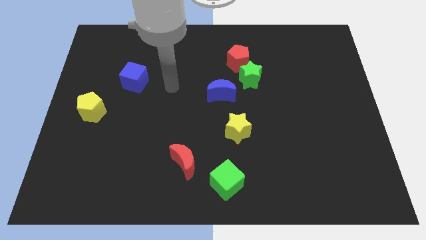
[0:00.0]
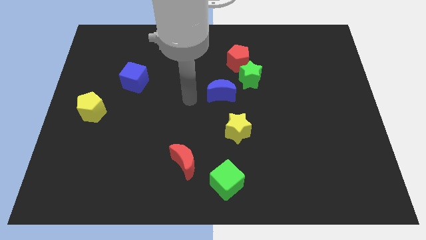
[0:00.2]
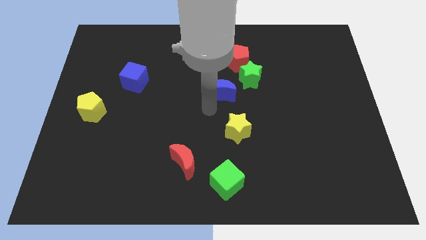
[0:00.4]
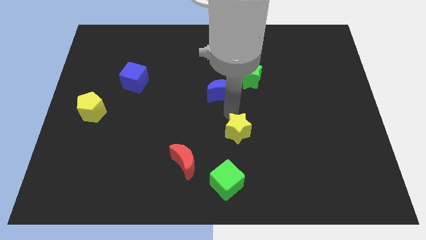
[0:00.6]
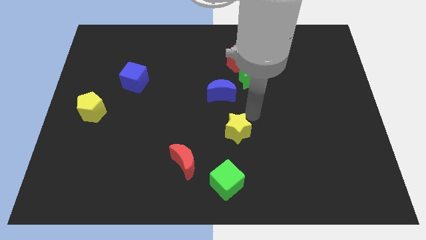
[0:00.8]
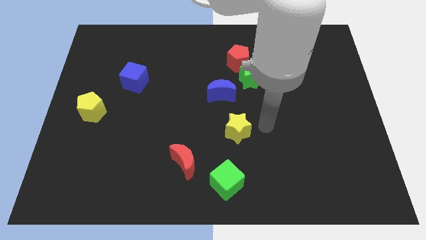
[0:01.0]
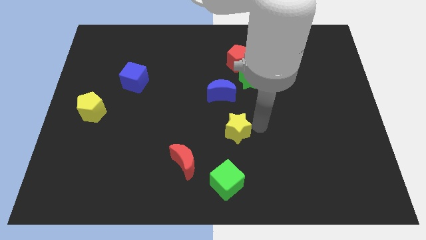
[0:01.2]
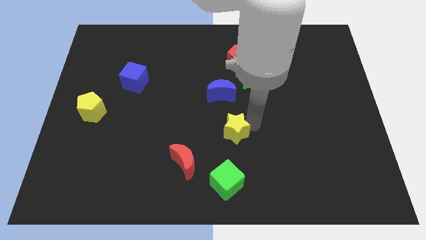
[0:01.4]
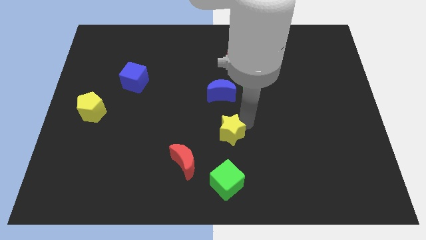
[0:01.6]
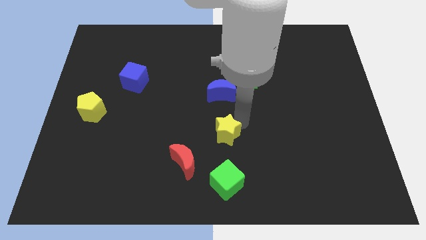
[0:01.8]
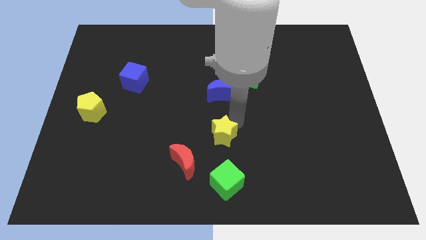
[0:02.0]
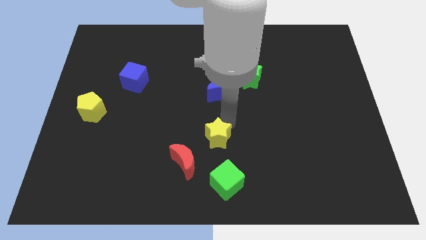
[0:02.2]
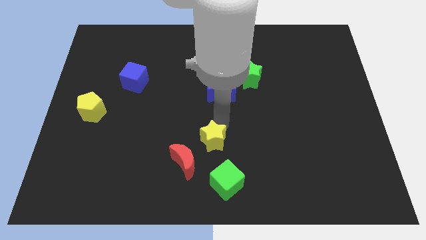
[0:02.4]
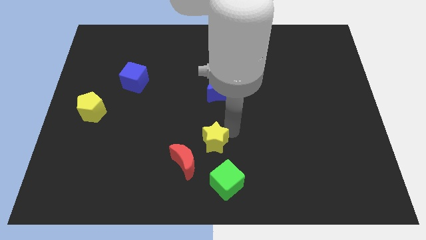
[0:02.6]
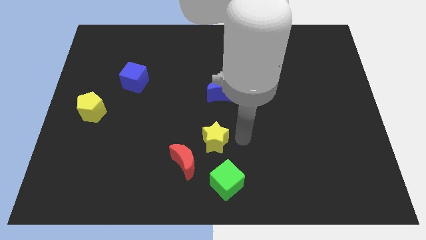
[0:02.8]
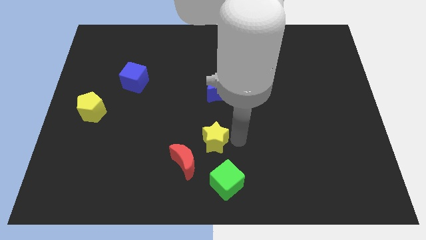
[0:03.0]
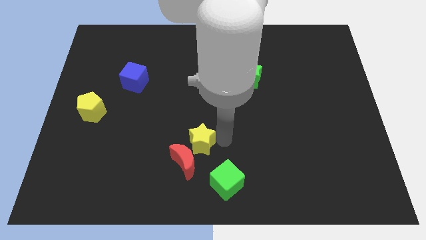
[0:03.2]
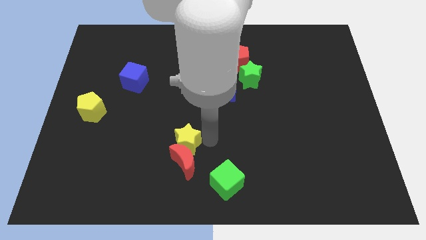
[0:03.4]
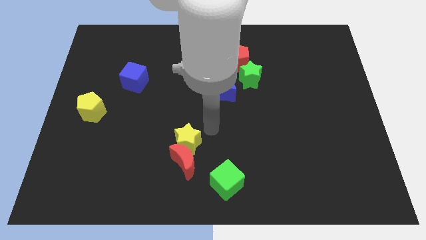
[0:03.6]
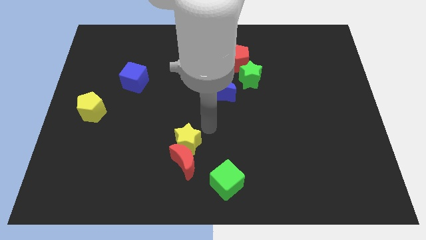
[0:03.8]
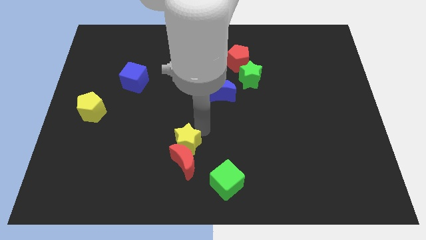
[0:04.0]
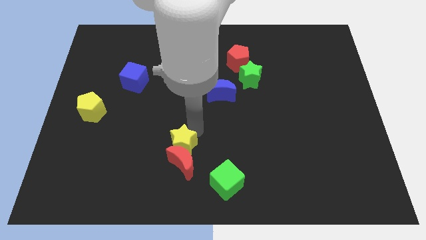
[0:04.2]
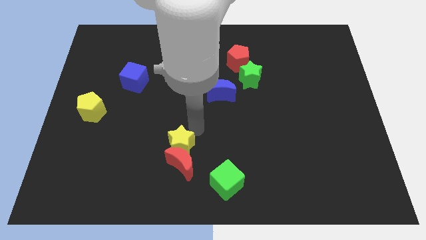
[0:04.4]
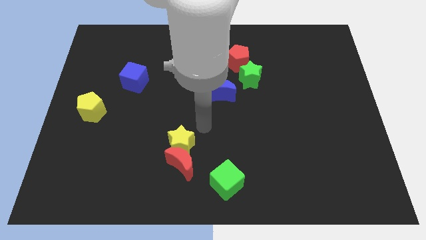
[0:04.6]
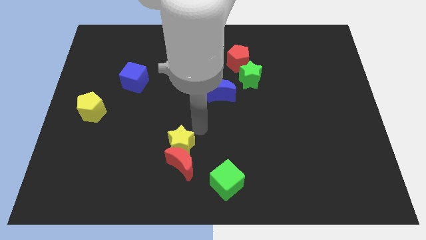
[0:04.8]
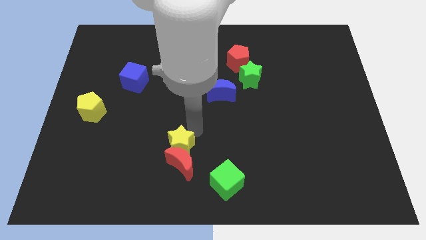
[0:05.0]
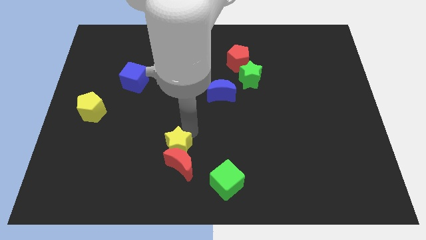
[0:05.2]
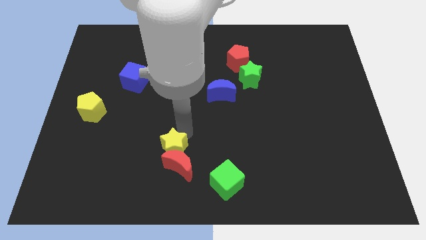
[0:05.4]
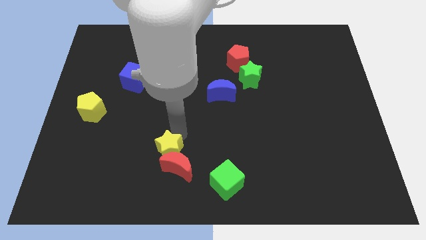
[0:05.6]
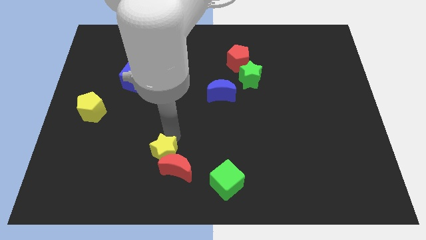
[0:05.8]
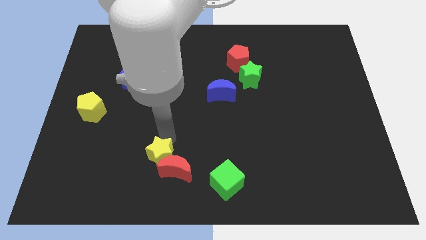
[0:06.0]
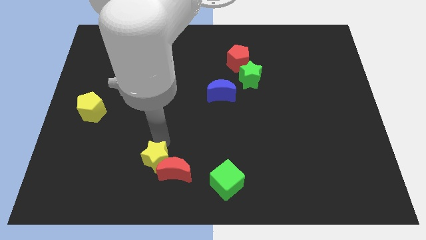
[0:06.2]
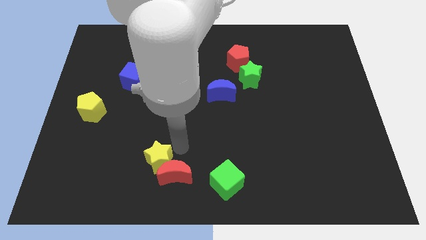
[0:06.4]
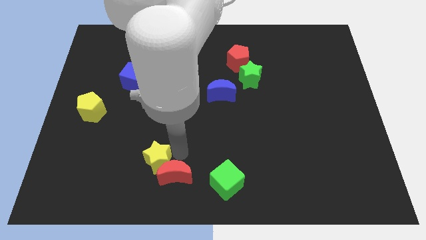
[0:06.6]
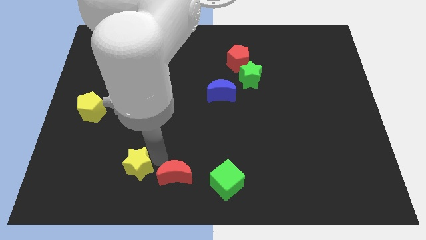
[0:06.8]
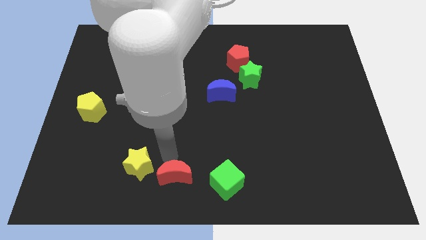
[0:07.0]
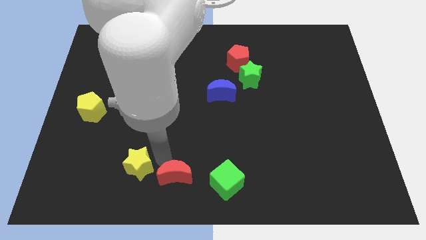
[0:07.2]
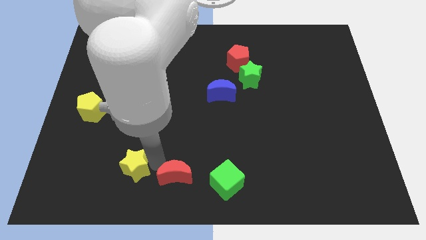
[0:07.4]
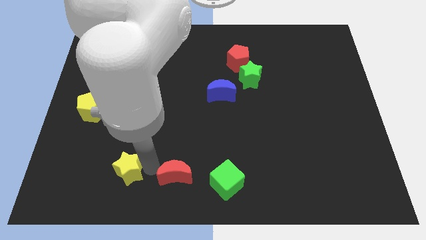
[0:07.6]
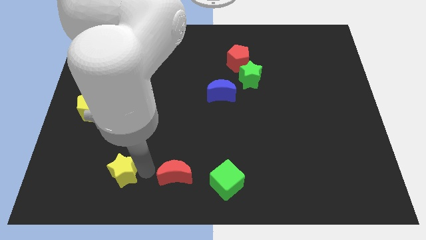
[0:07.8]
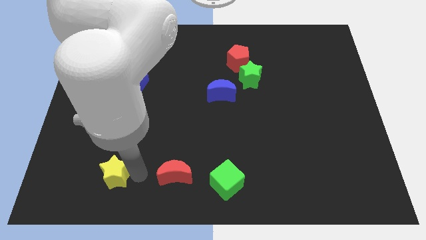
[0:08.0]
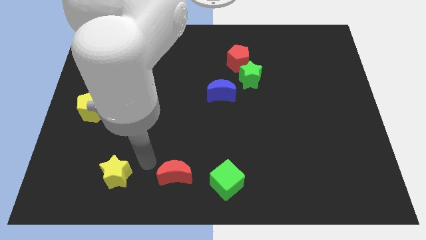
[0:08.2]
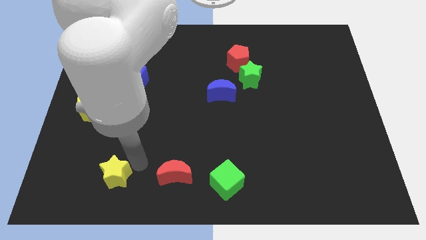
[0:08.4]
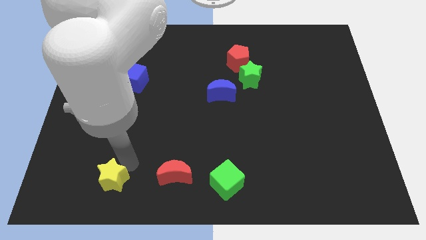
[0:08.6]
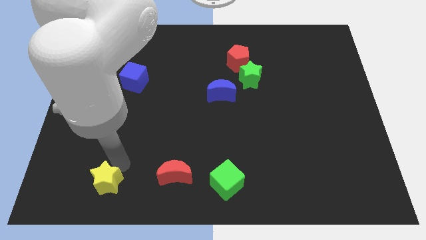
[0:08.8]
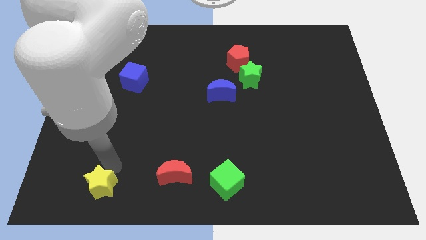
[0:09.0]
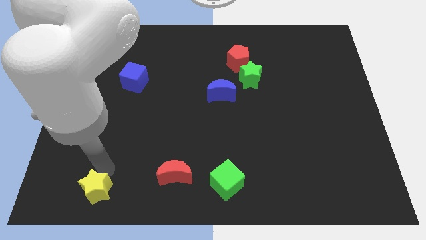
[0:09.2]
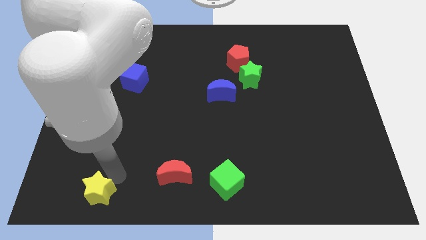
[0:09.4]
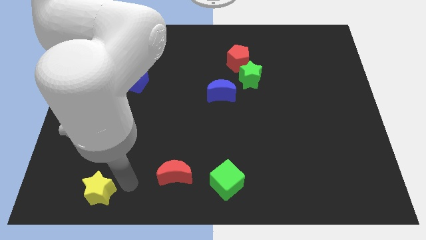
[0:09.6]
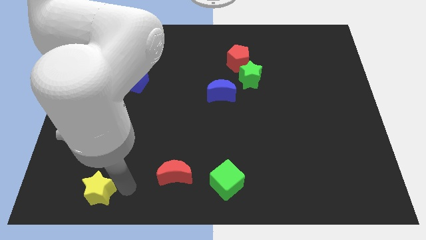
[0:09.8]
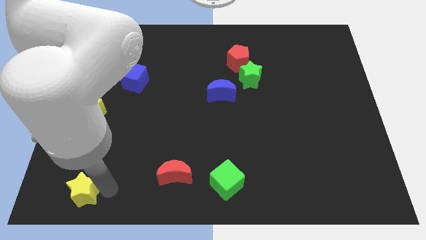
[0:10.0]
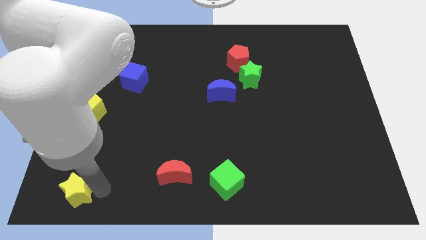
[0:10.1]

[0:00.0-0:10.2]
push the yellow star to the bottom left
